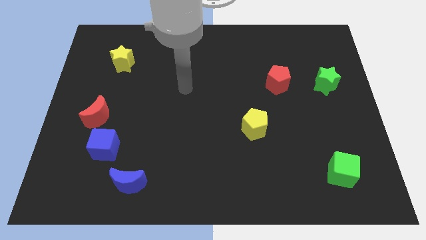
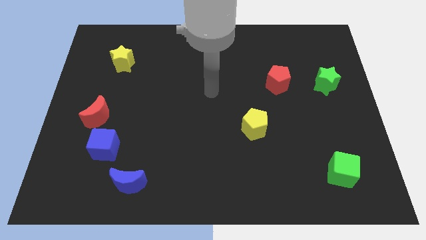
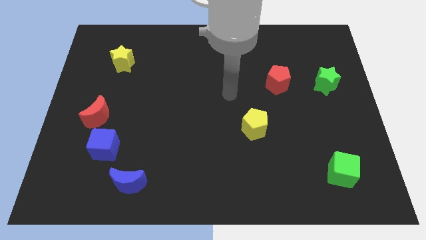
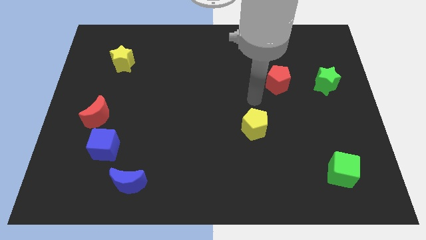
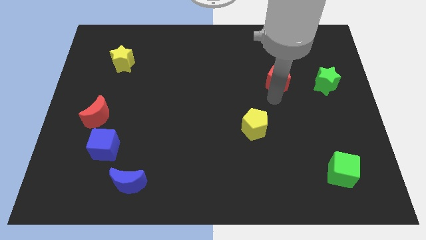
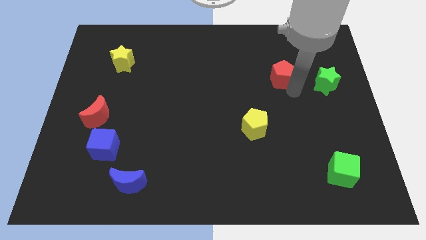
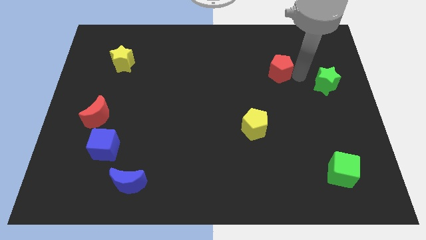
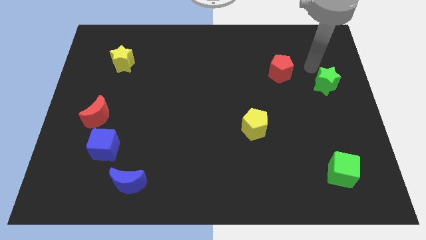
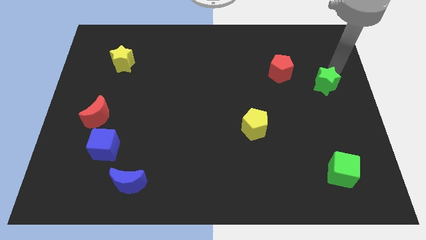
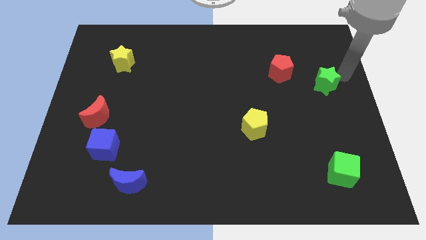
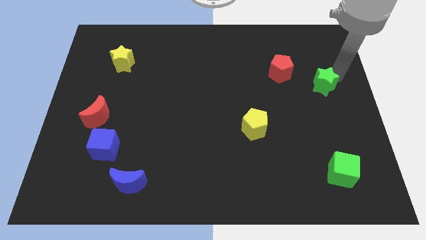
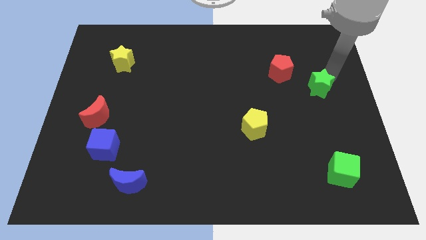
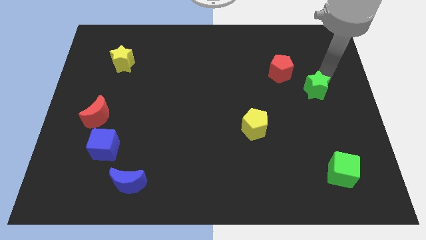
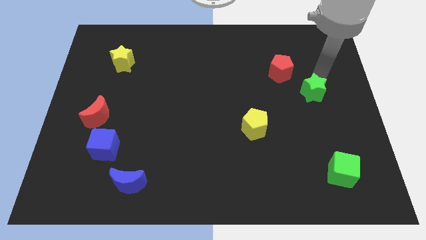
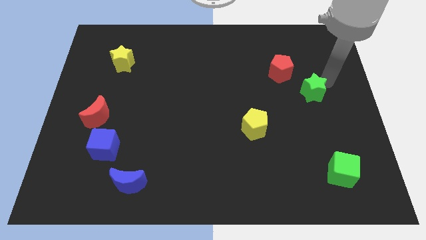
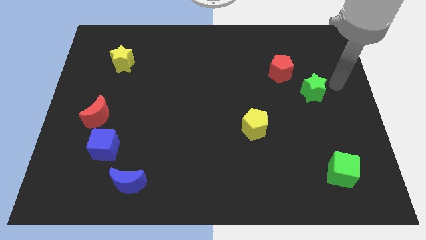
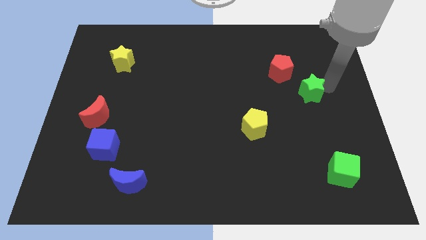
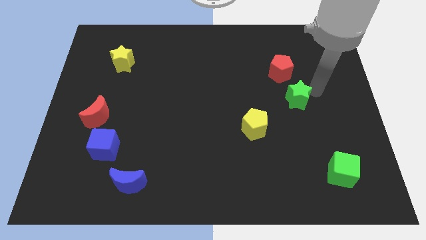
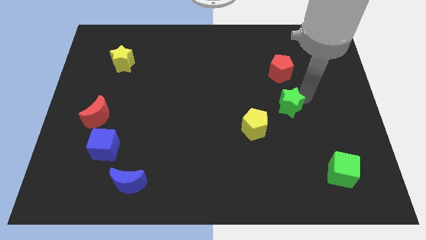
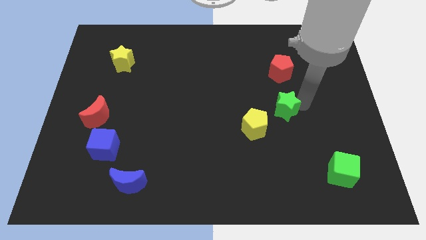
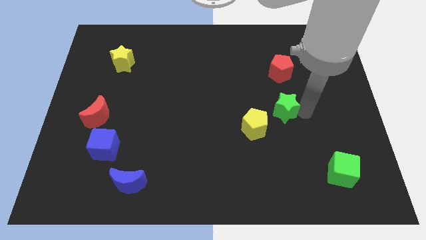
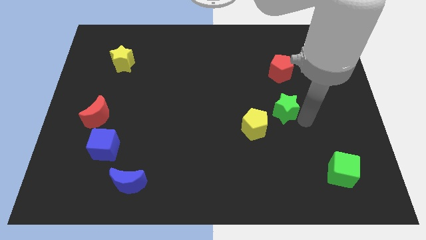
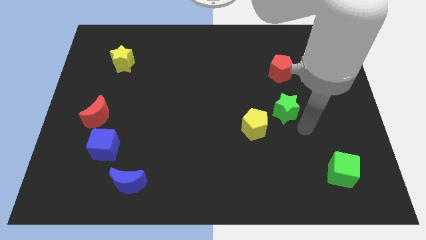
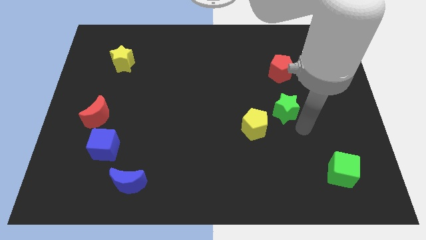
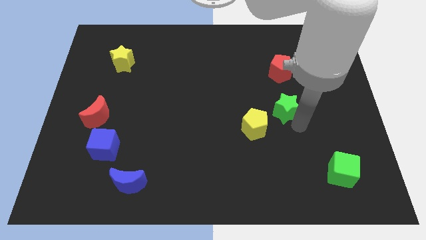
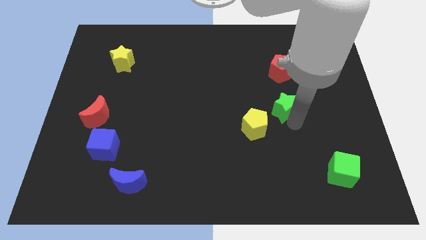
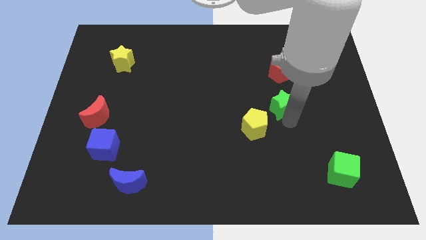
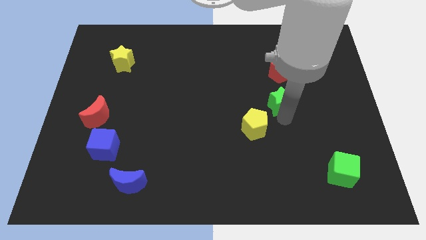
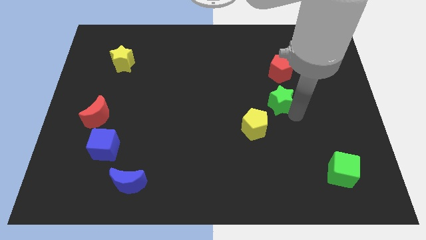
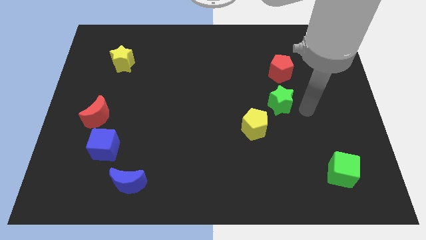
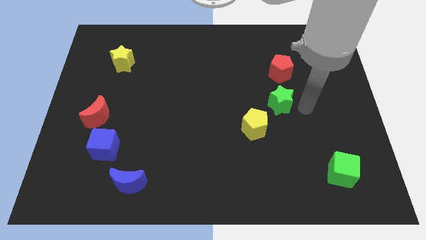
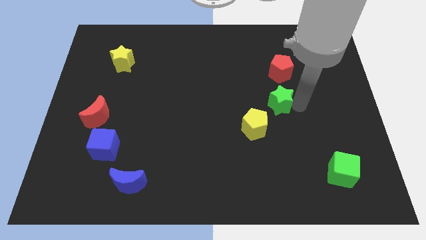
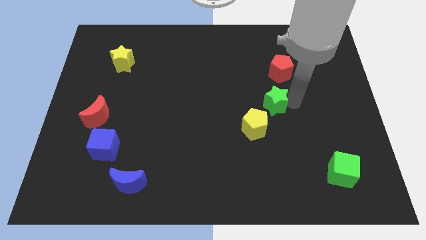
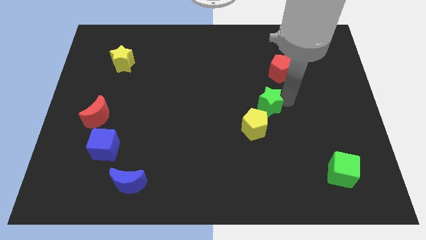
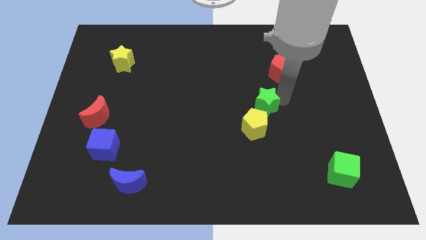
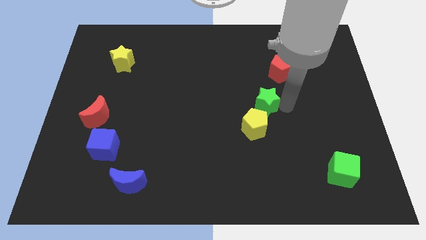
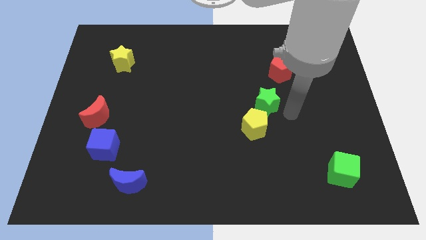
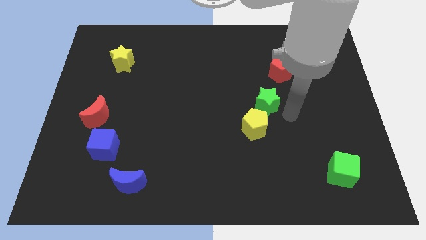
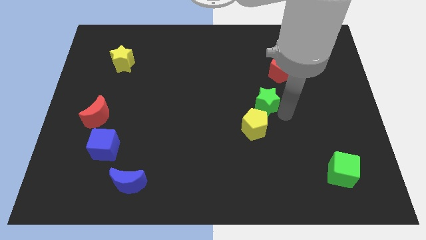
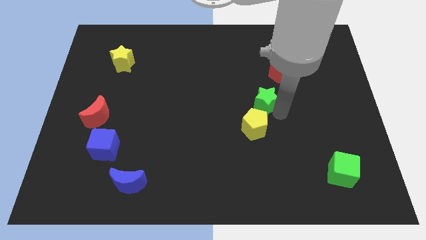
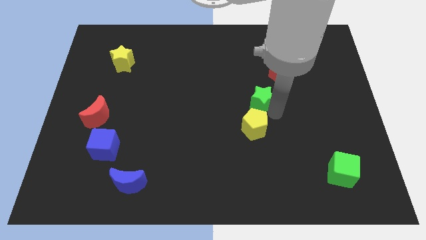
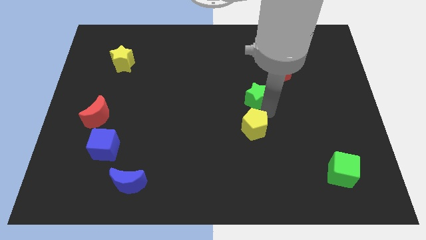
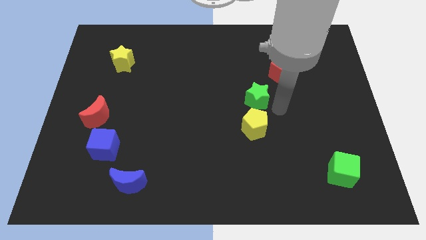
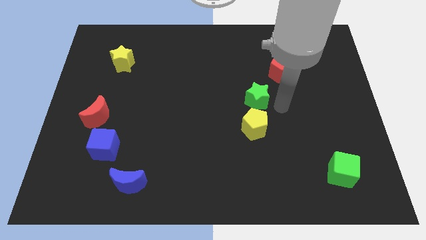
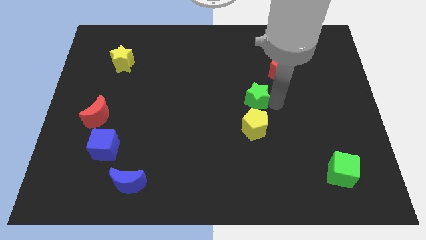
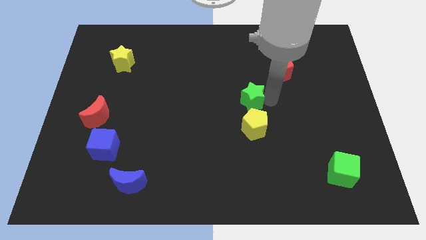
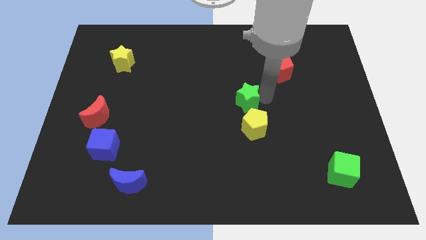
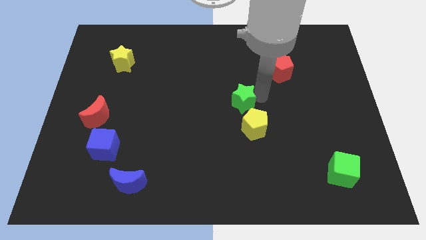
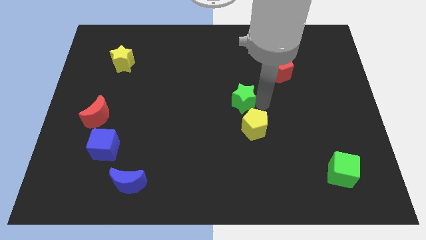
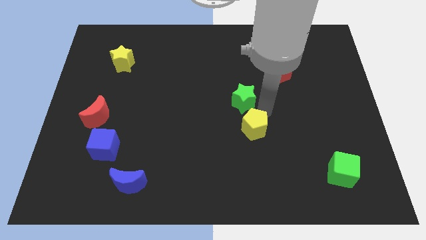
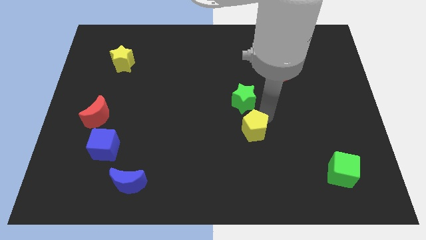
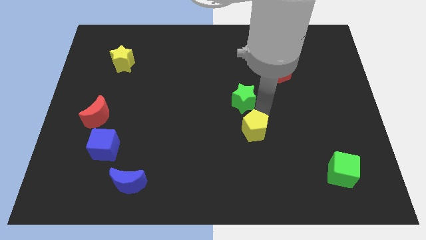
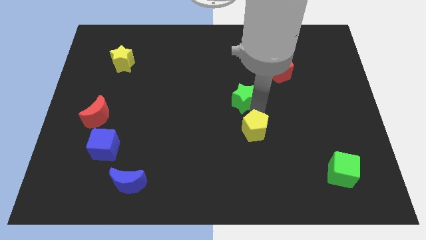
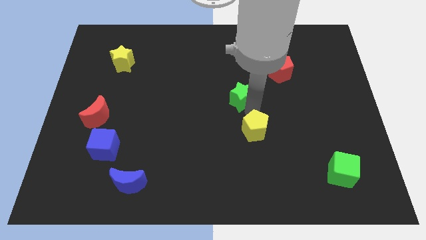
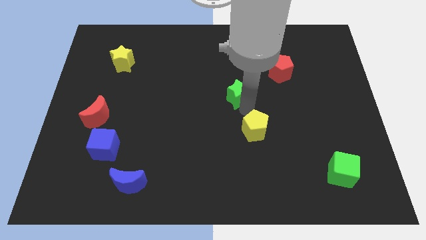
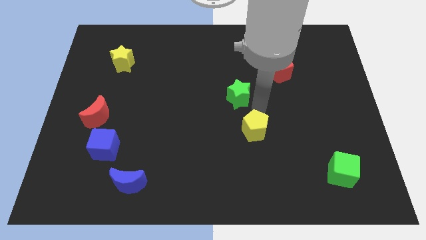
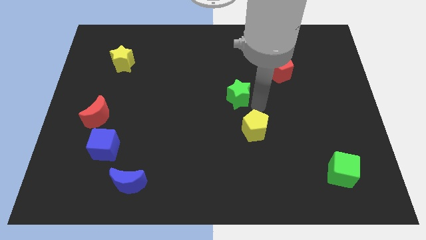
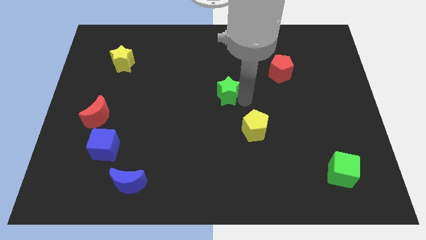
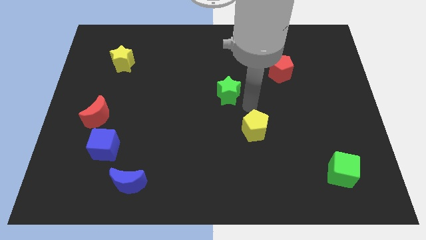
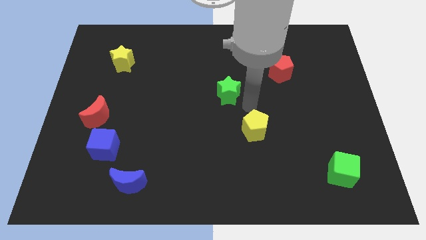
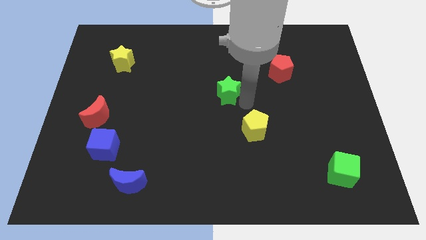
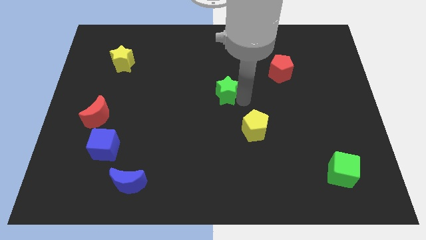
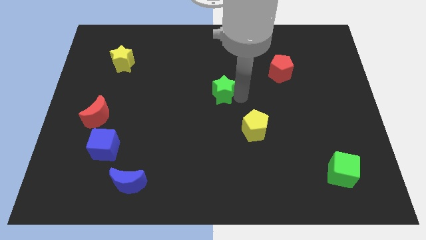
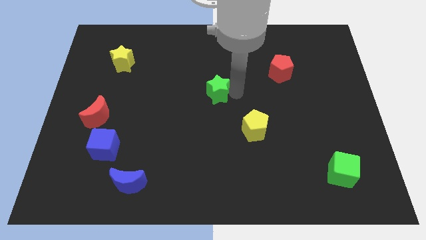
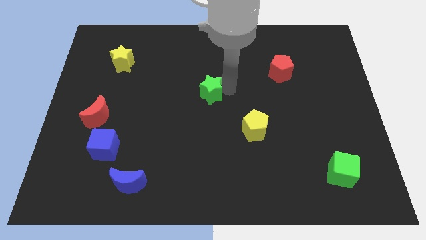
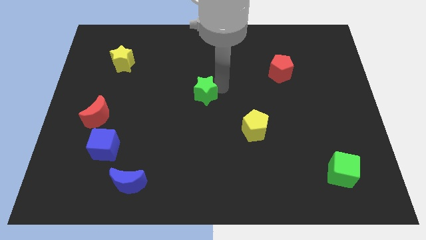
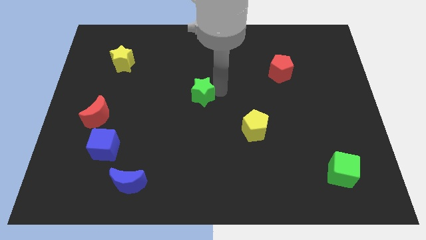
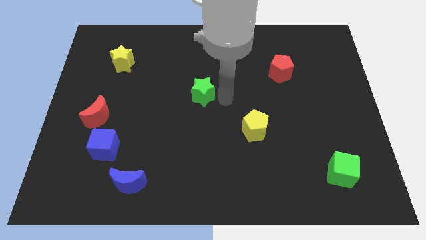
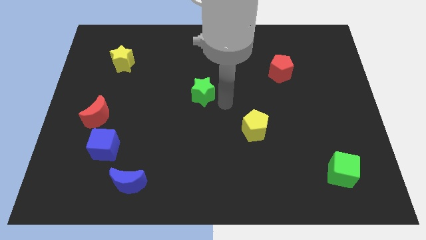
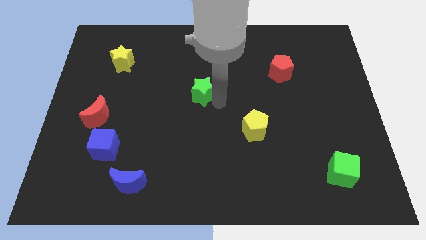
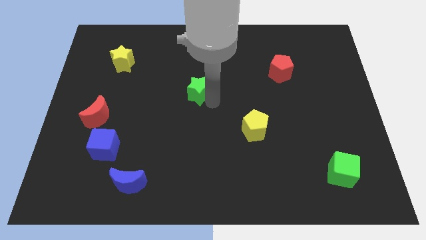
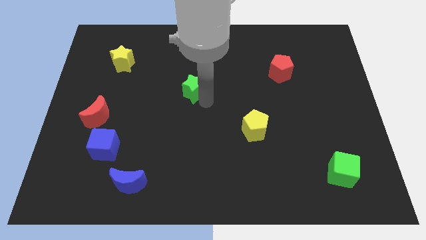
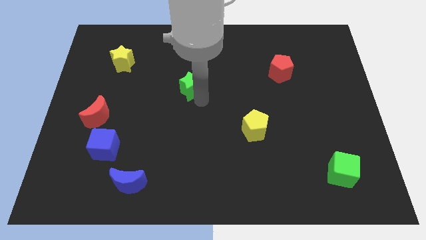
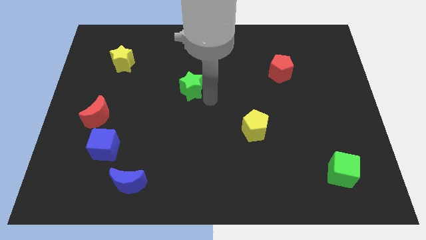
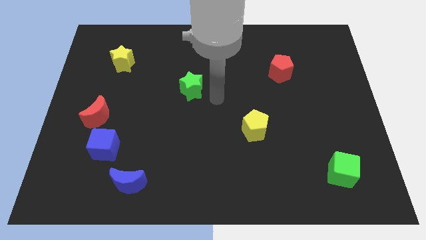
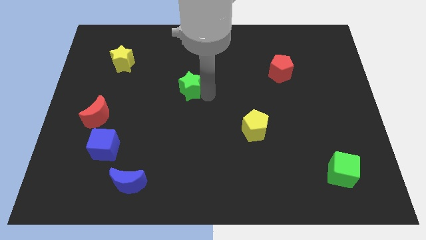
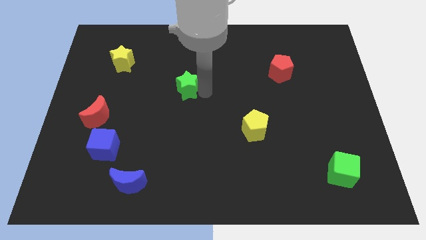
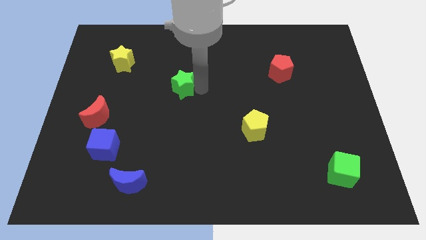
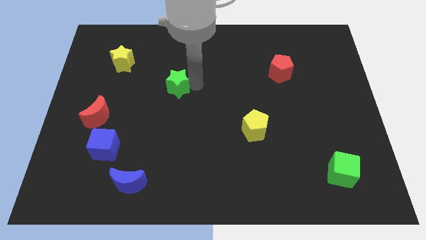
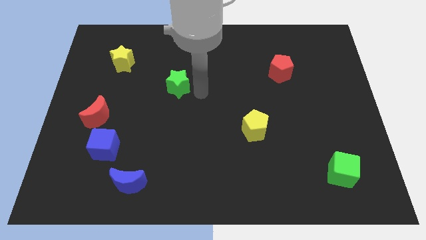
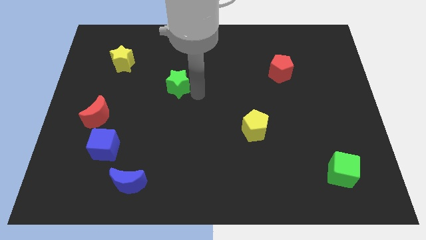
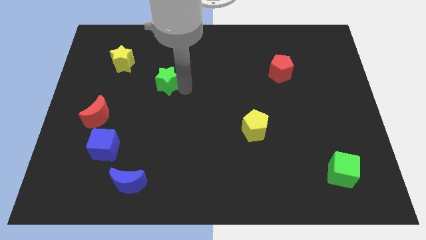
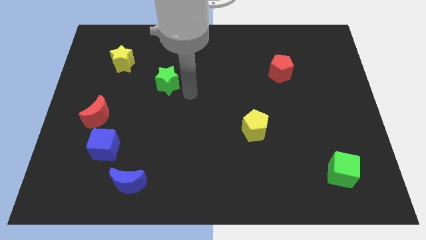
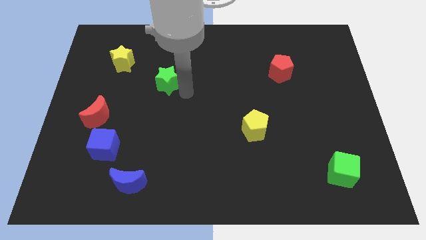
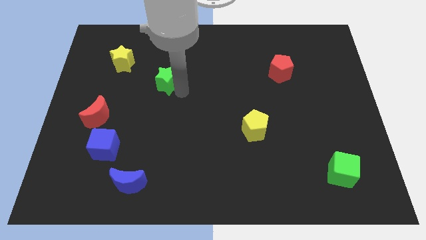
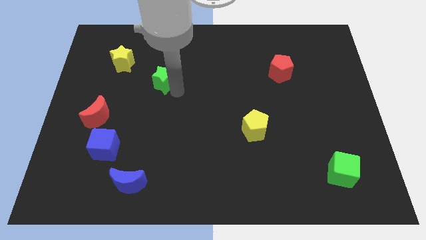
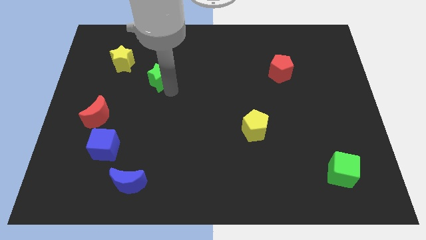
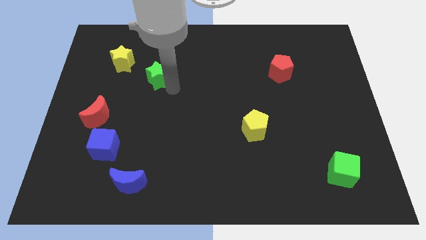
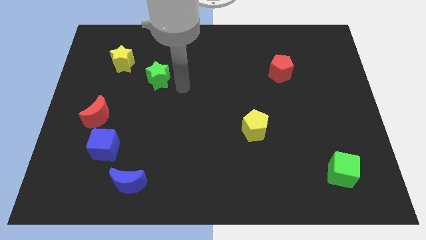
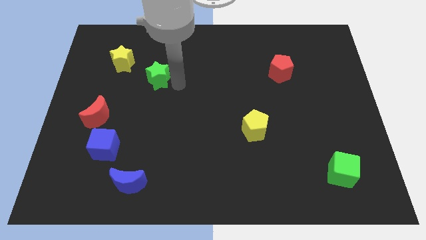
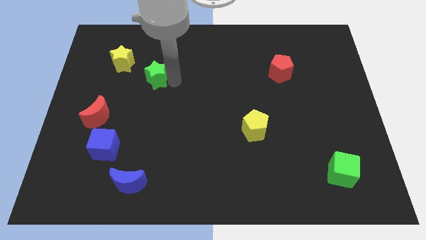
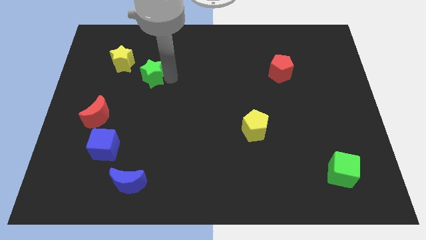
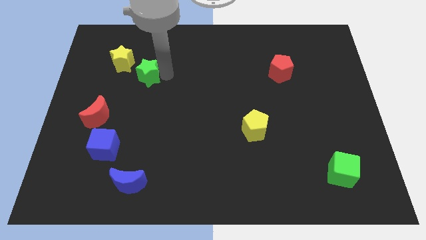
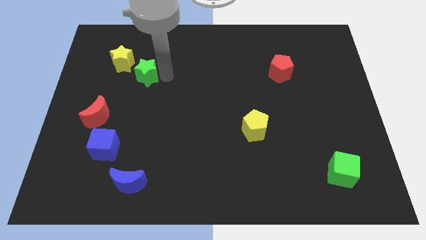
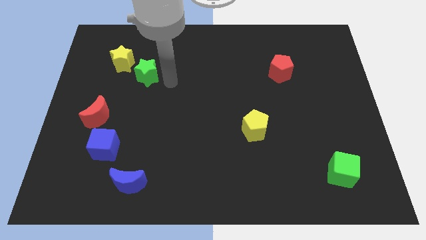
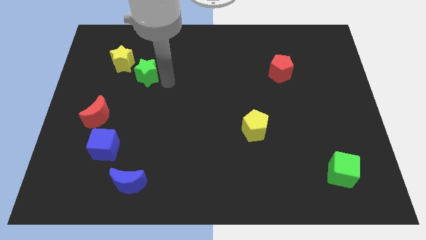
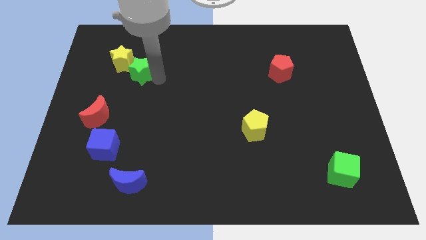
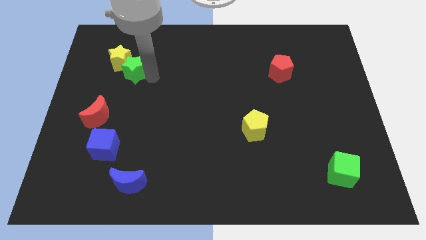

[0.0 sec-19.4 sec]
move the green star towards the yellow star
